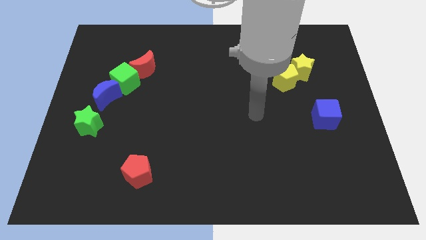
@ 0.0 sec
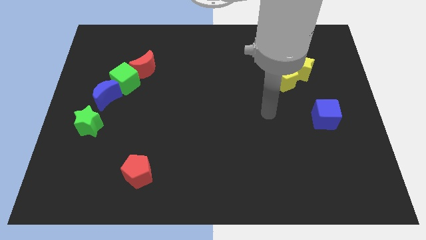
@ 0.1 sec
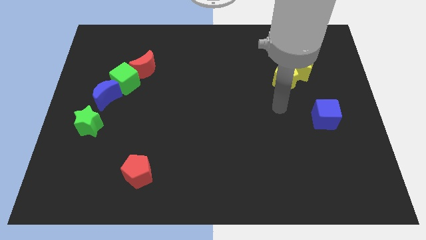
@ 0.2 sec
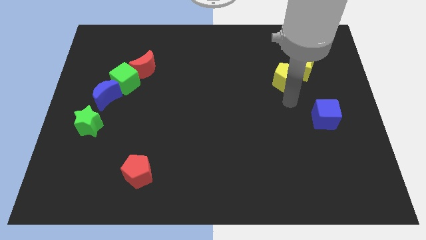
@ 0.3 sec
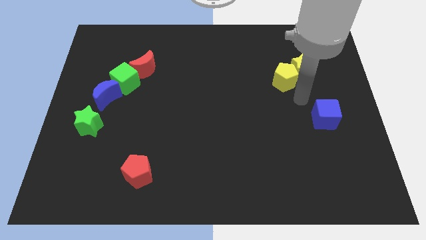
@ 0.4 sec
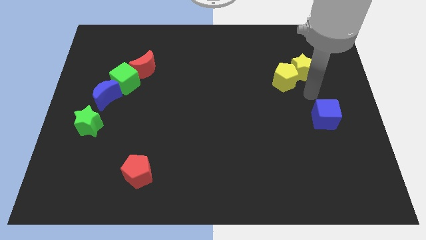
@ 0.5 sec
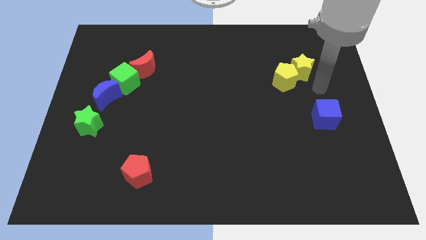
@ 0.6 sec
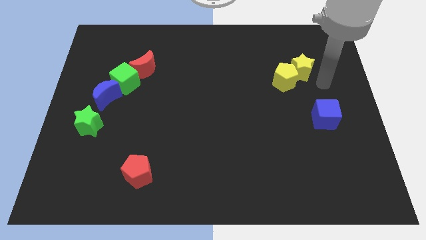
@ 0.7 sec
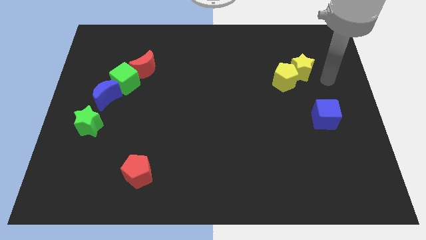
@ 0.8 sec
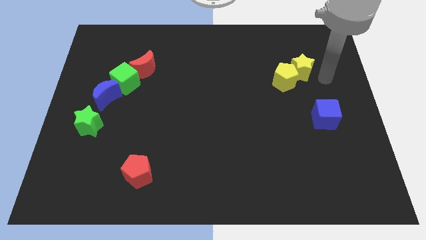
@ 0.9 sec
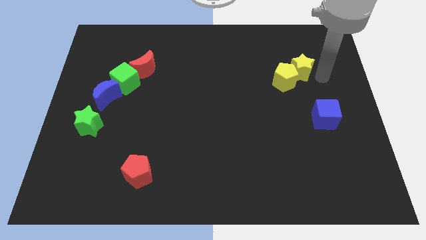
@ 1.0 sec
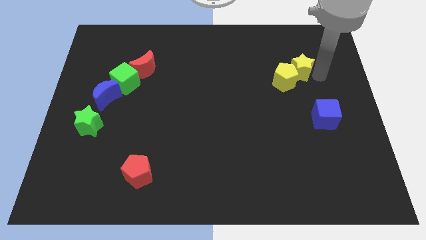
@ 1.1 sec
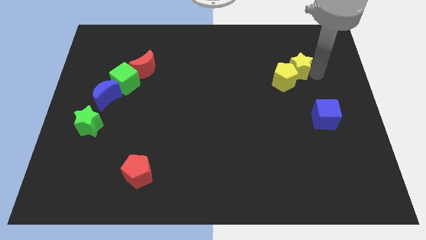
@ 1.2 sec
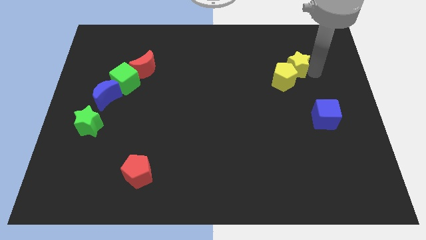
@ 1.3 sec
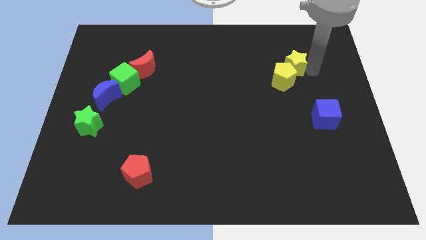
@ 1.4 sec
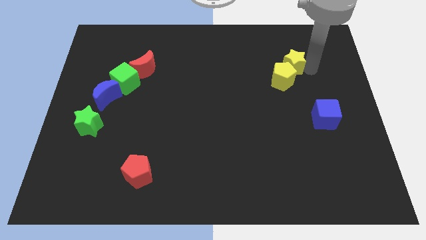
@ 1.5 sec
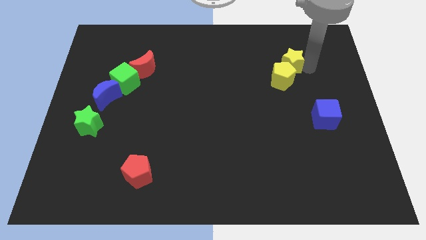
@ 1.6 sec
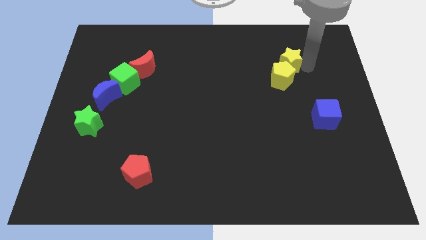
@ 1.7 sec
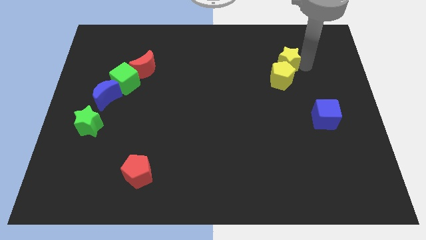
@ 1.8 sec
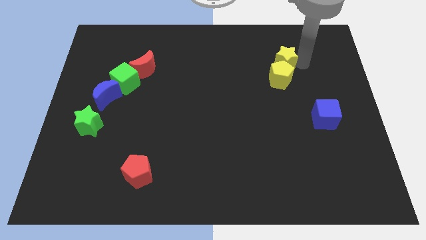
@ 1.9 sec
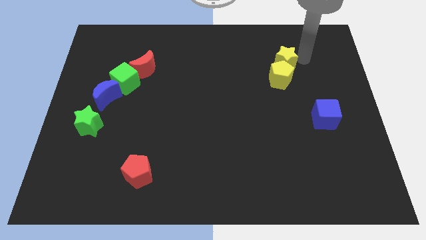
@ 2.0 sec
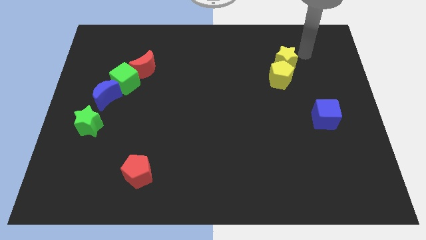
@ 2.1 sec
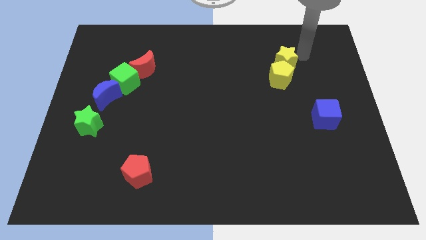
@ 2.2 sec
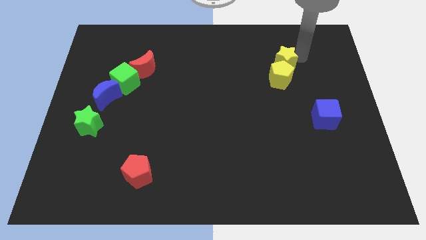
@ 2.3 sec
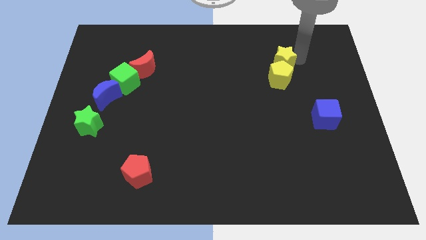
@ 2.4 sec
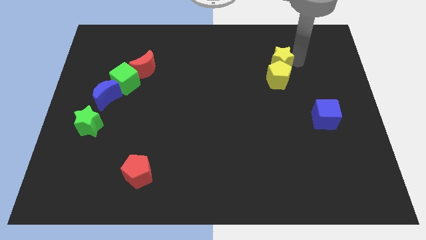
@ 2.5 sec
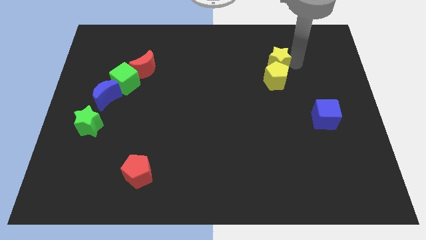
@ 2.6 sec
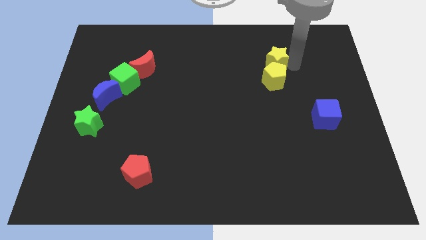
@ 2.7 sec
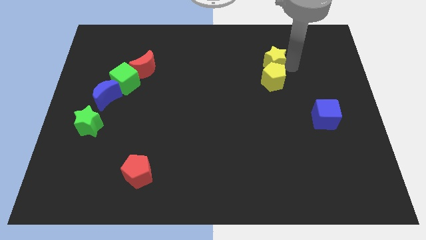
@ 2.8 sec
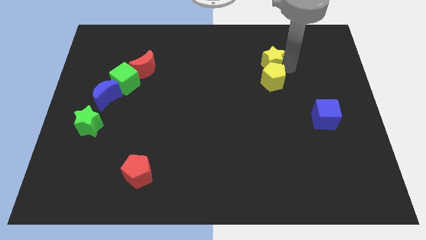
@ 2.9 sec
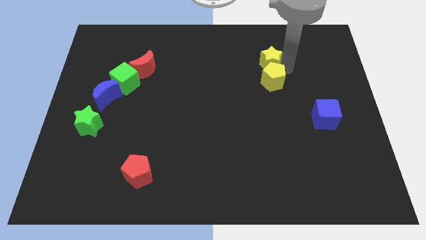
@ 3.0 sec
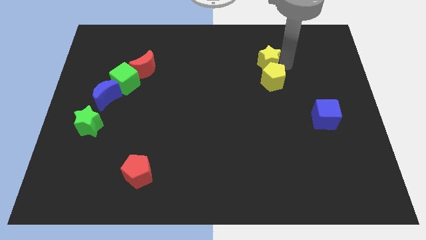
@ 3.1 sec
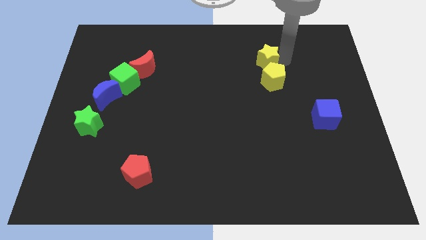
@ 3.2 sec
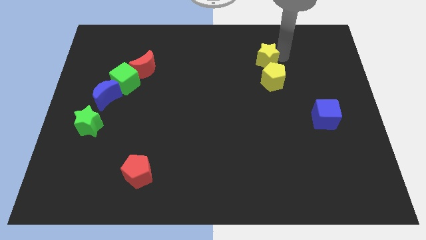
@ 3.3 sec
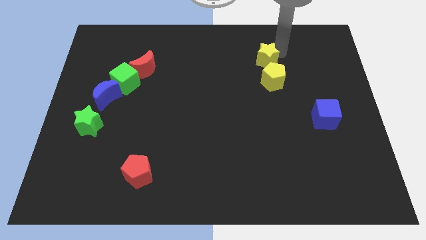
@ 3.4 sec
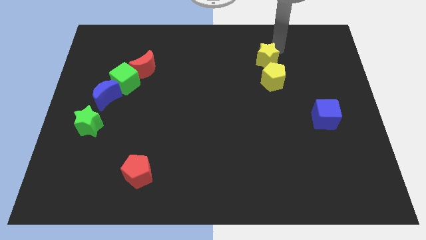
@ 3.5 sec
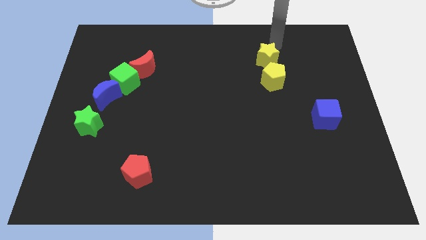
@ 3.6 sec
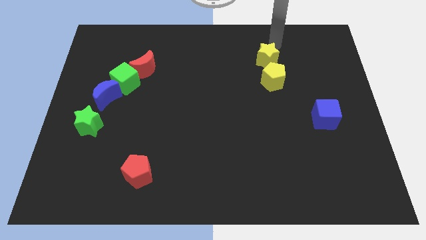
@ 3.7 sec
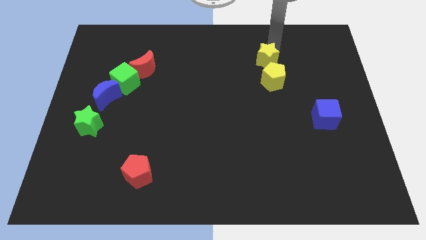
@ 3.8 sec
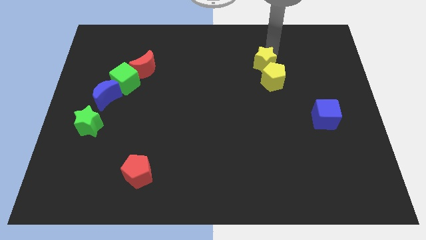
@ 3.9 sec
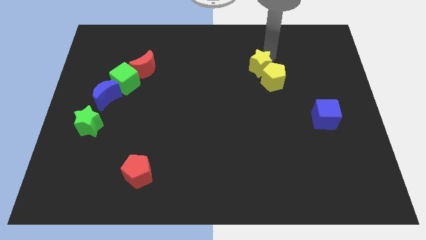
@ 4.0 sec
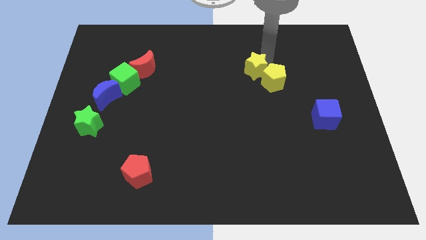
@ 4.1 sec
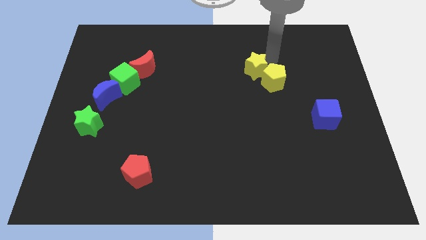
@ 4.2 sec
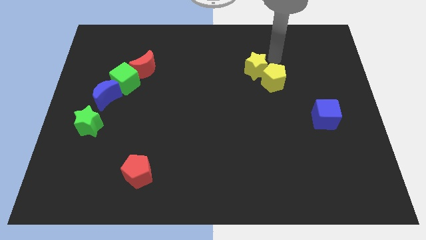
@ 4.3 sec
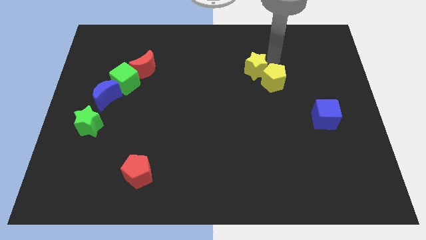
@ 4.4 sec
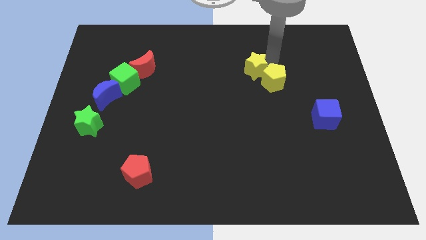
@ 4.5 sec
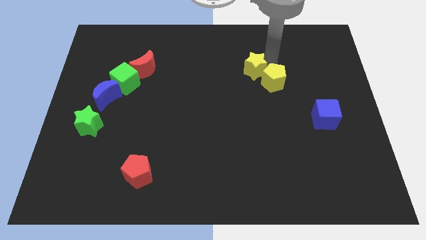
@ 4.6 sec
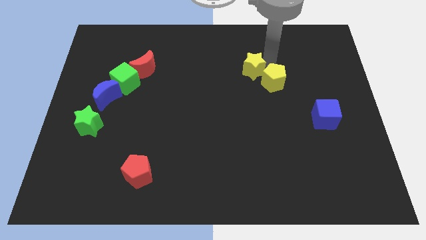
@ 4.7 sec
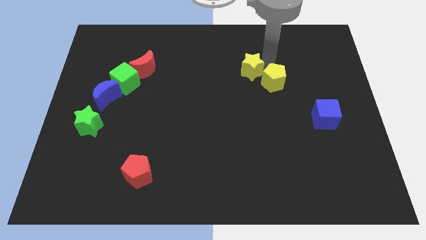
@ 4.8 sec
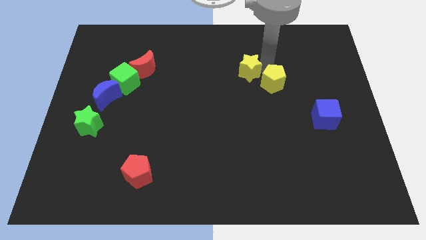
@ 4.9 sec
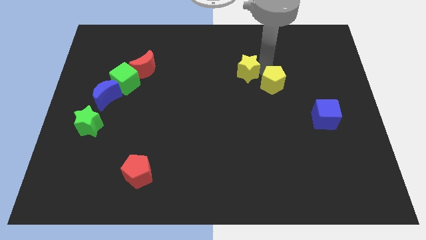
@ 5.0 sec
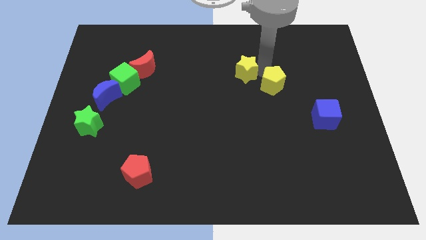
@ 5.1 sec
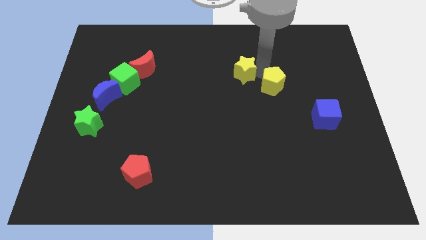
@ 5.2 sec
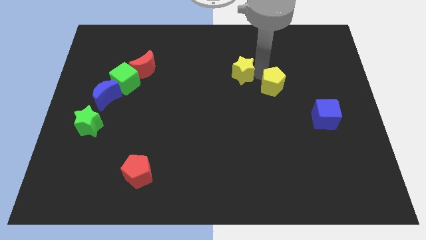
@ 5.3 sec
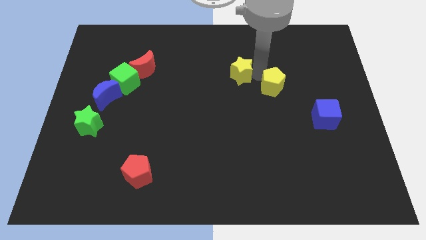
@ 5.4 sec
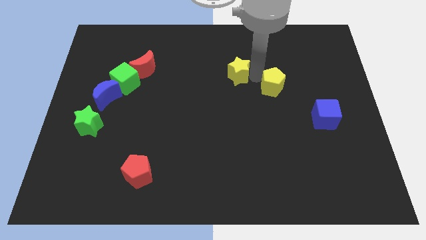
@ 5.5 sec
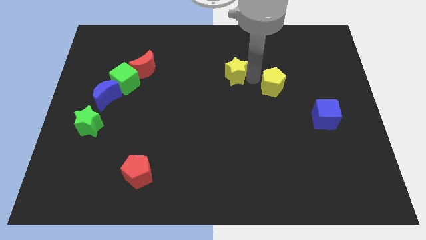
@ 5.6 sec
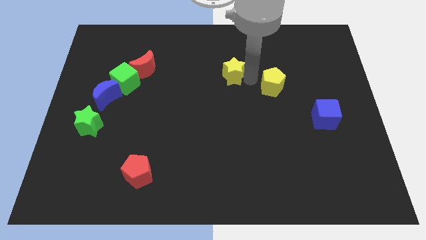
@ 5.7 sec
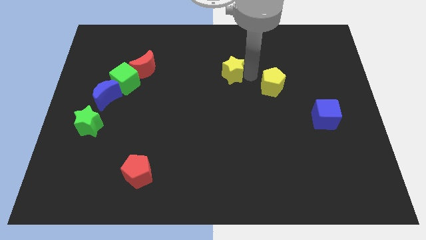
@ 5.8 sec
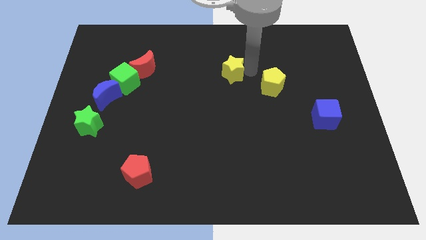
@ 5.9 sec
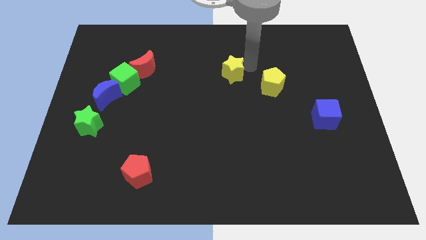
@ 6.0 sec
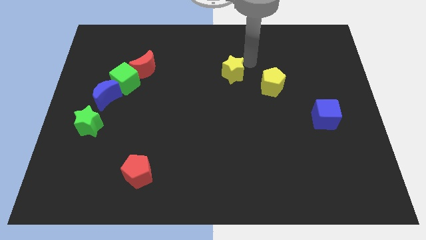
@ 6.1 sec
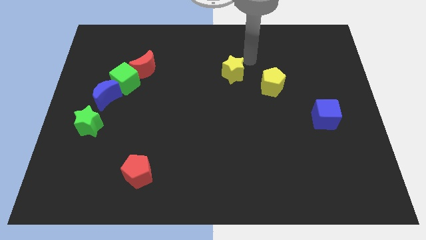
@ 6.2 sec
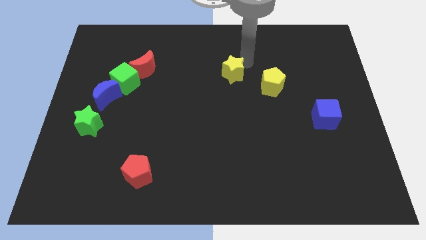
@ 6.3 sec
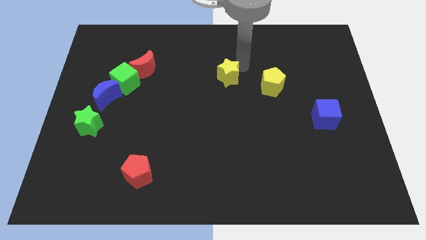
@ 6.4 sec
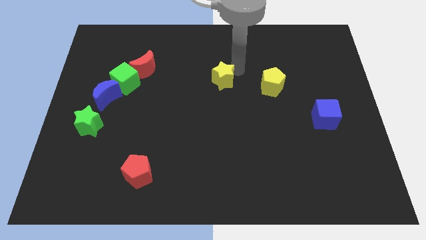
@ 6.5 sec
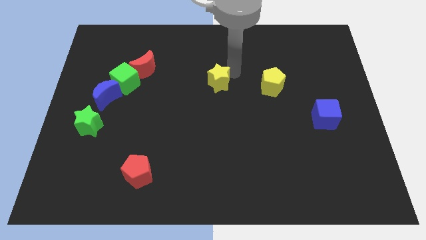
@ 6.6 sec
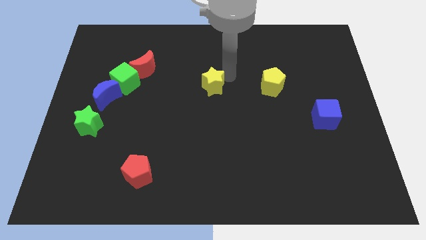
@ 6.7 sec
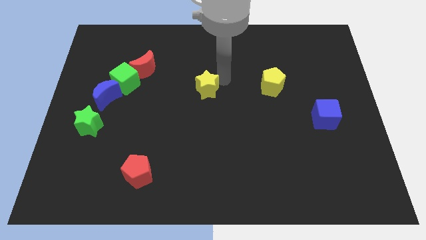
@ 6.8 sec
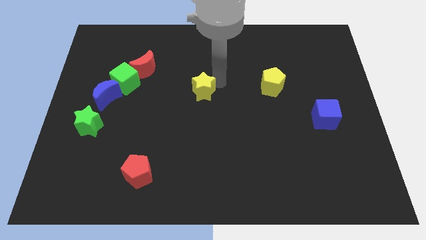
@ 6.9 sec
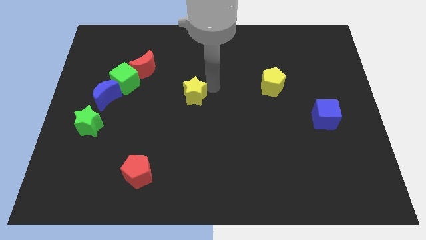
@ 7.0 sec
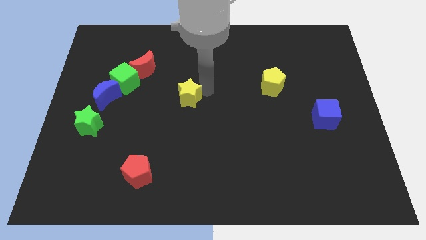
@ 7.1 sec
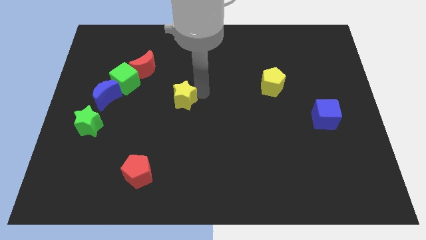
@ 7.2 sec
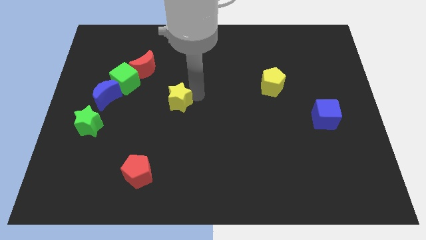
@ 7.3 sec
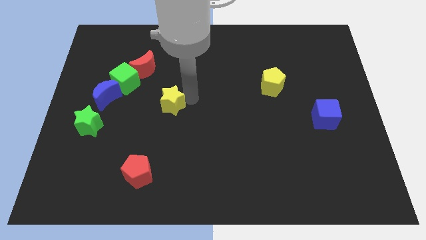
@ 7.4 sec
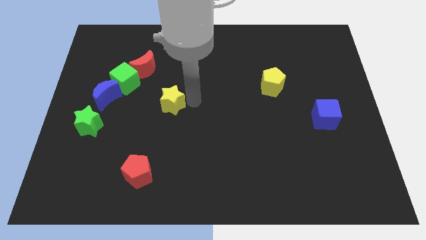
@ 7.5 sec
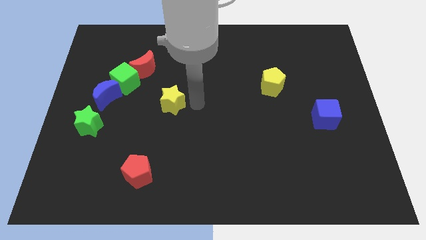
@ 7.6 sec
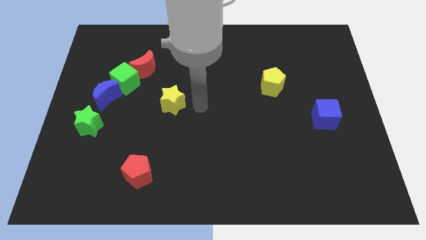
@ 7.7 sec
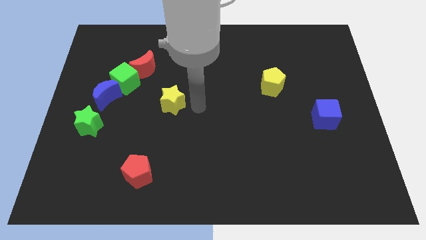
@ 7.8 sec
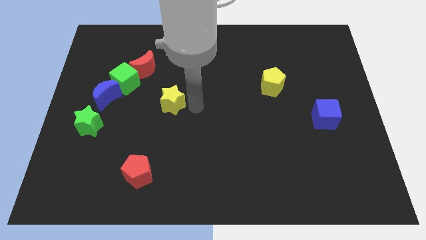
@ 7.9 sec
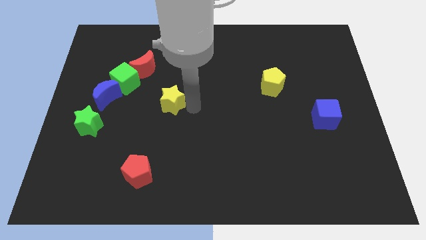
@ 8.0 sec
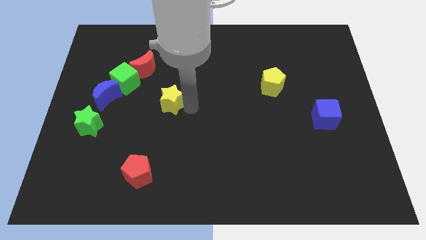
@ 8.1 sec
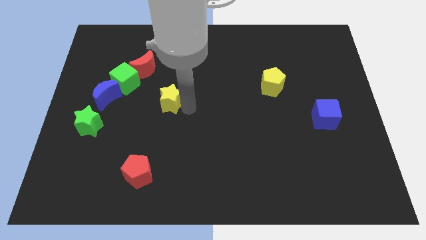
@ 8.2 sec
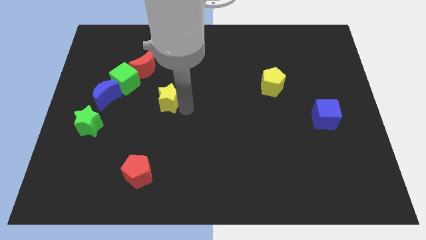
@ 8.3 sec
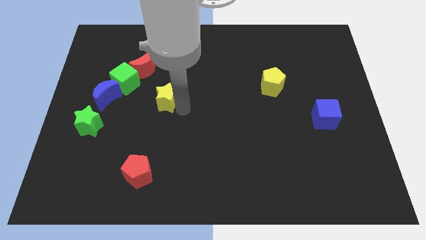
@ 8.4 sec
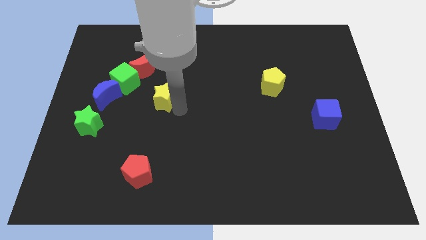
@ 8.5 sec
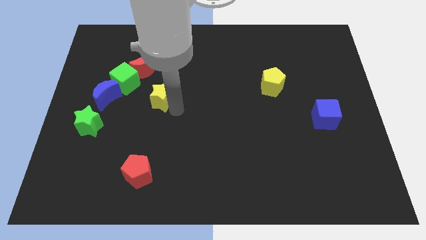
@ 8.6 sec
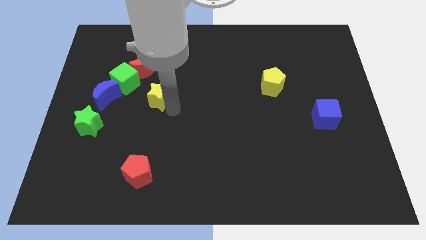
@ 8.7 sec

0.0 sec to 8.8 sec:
put the yellow star below the red moon
